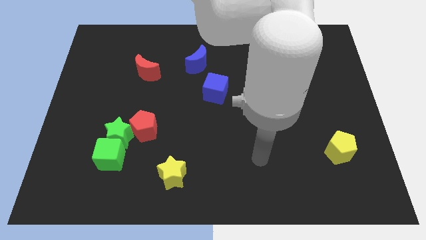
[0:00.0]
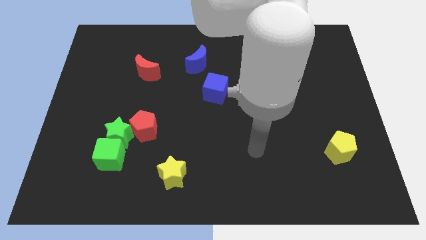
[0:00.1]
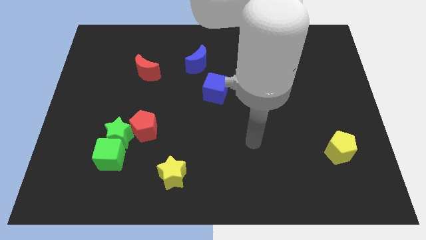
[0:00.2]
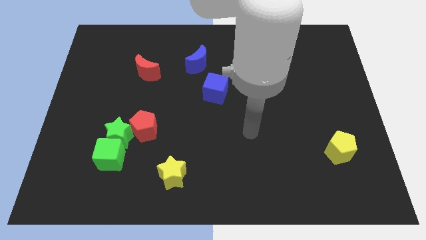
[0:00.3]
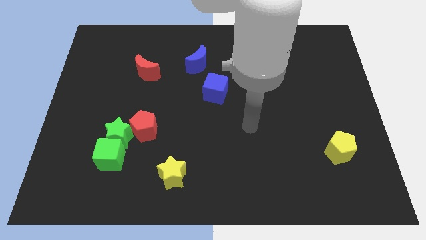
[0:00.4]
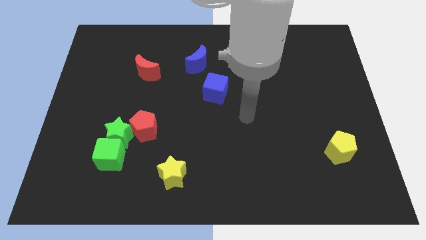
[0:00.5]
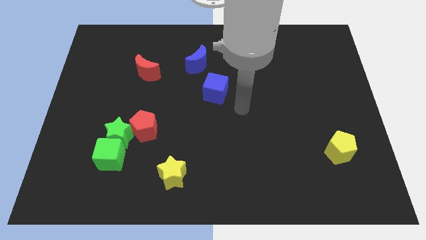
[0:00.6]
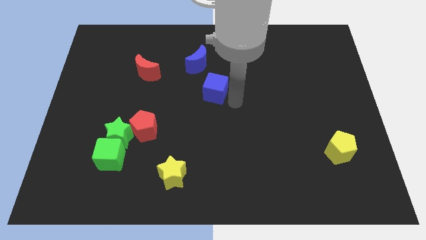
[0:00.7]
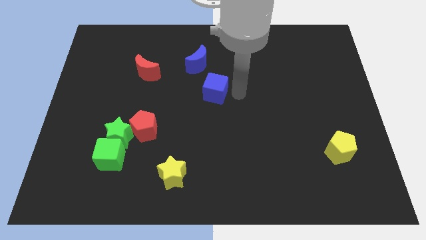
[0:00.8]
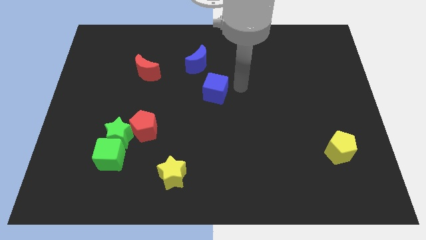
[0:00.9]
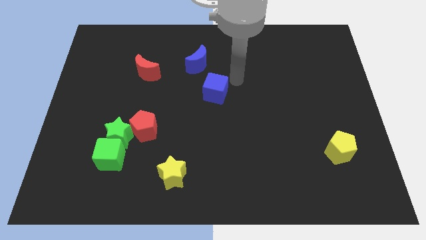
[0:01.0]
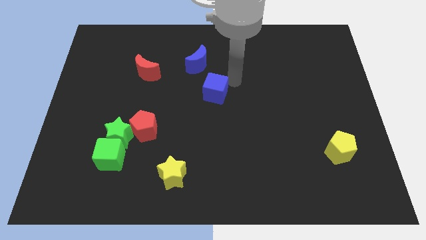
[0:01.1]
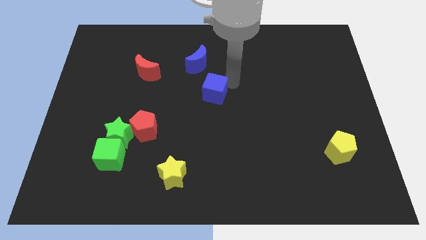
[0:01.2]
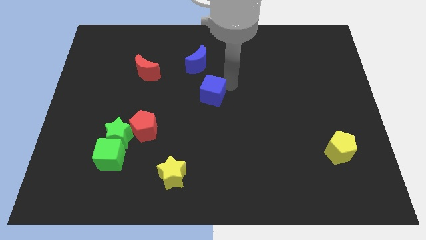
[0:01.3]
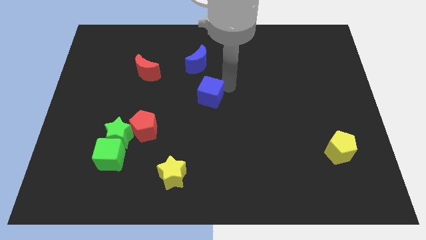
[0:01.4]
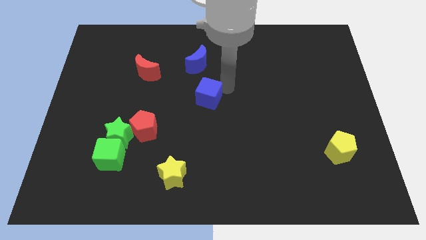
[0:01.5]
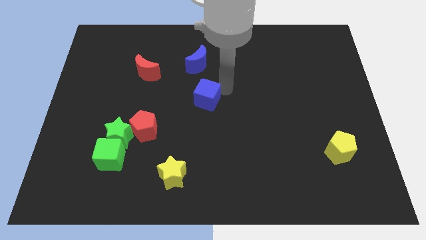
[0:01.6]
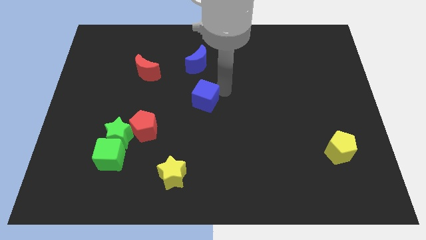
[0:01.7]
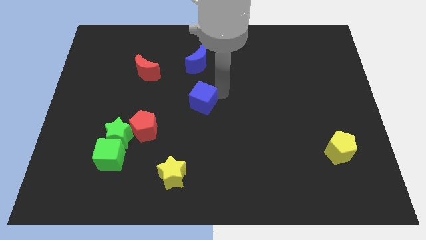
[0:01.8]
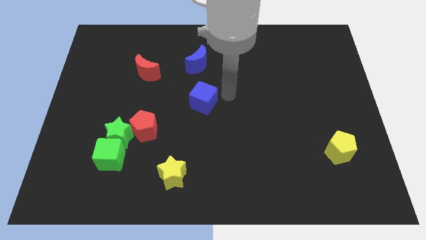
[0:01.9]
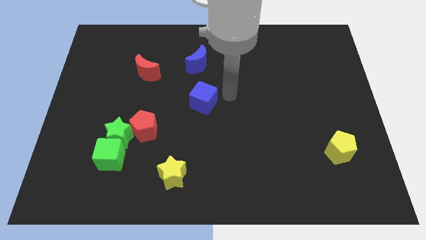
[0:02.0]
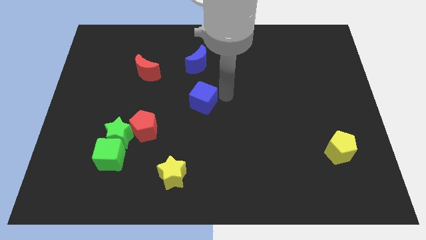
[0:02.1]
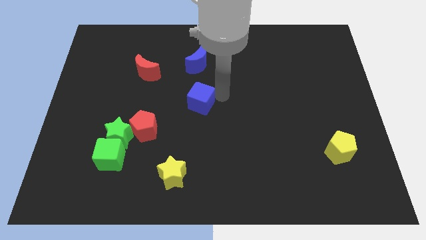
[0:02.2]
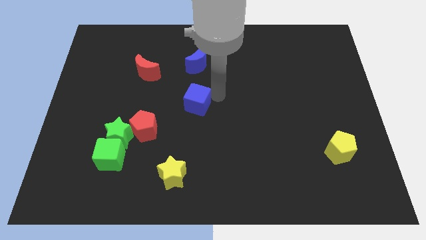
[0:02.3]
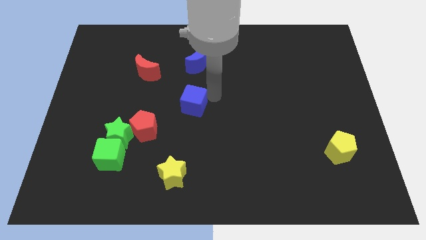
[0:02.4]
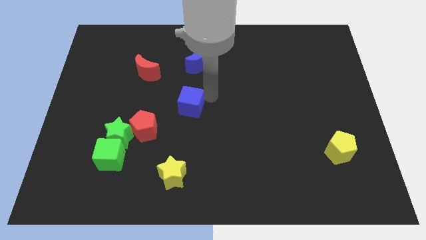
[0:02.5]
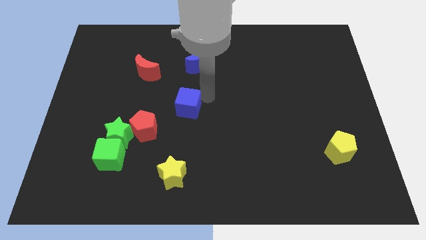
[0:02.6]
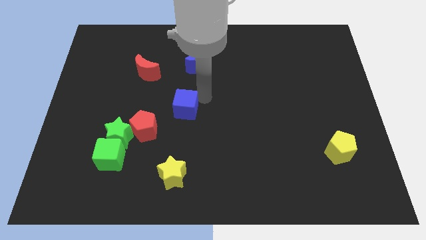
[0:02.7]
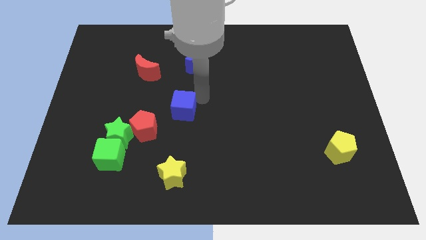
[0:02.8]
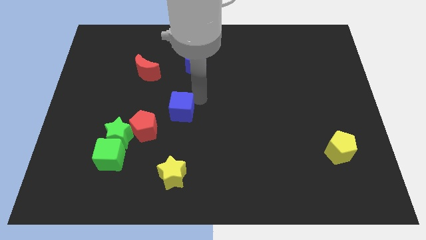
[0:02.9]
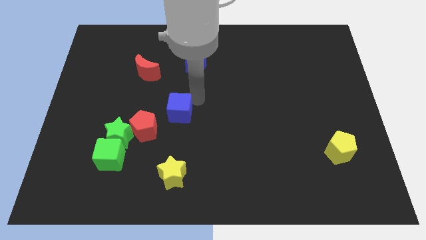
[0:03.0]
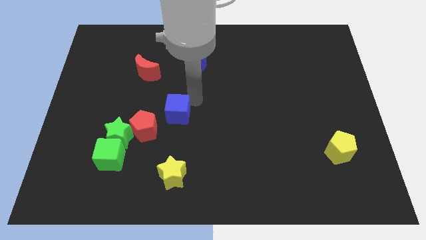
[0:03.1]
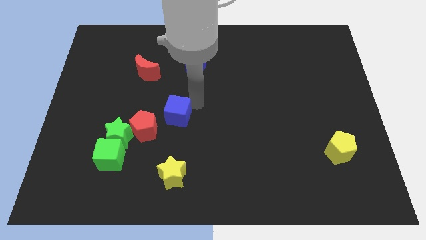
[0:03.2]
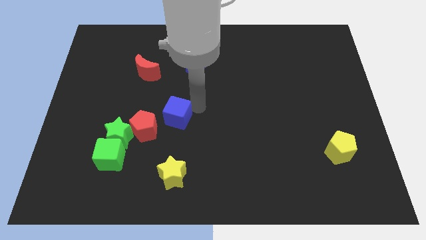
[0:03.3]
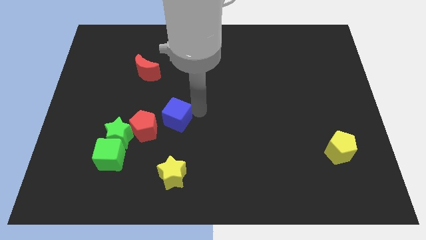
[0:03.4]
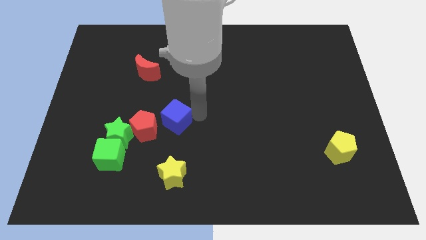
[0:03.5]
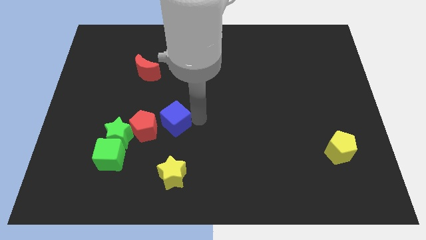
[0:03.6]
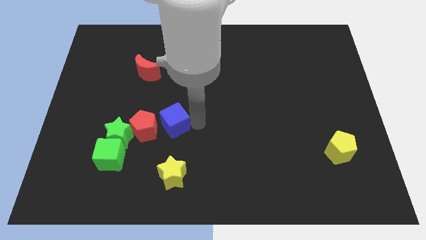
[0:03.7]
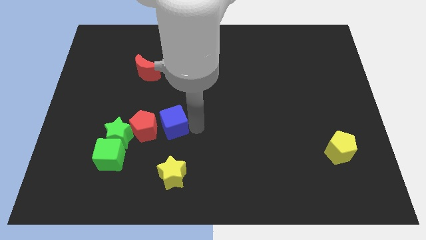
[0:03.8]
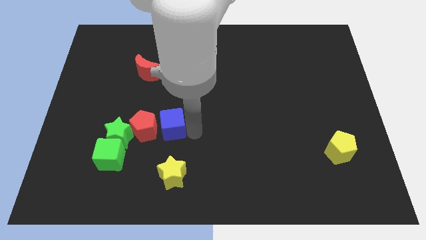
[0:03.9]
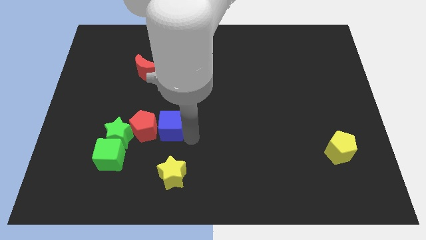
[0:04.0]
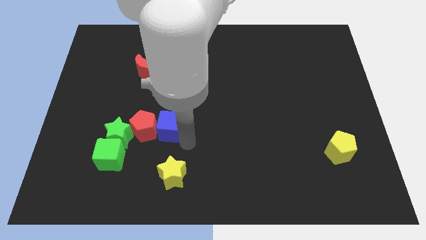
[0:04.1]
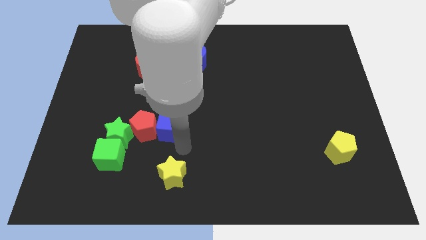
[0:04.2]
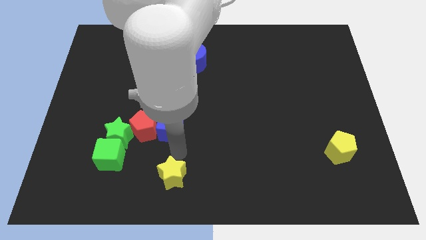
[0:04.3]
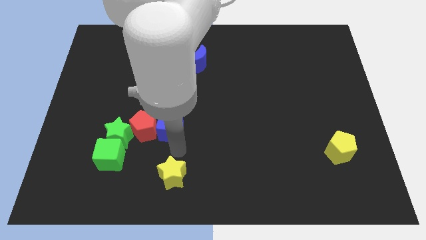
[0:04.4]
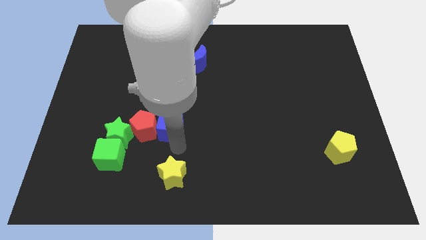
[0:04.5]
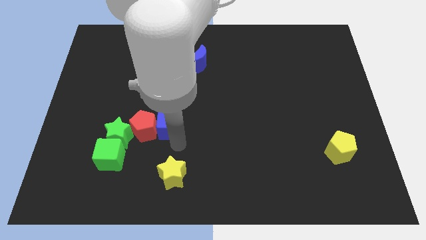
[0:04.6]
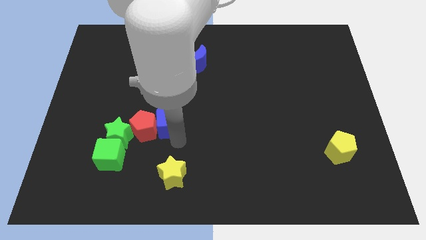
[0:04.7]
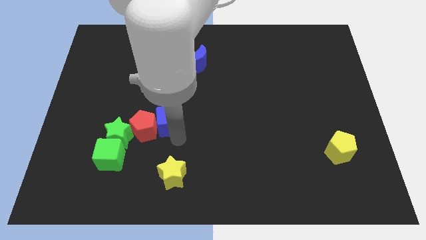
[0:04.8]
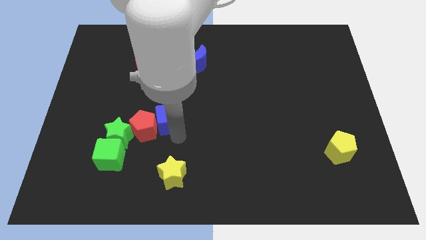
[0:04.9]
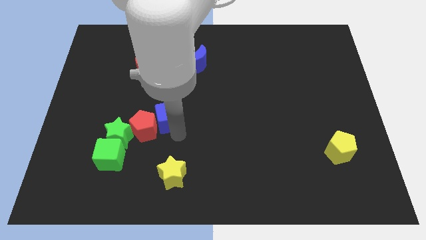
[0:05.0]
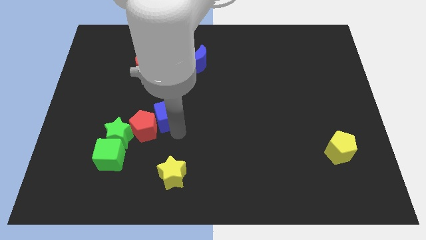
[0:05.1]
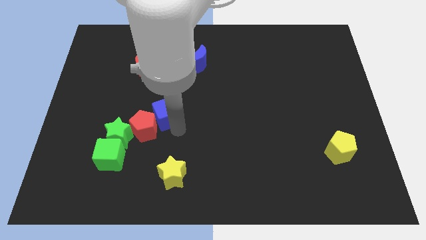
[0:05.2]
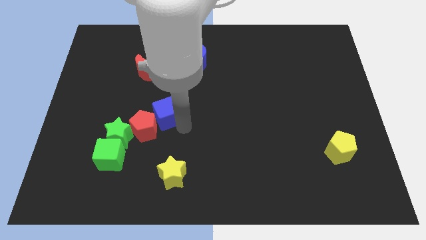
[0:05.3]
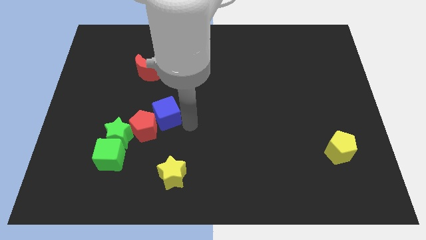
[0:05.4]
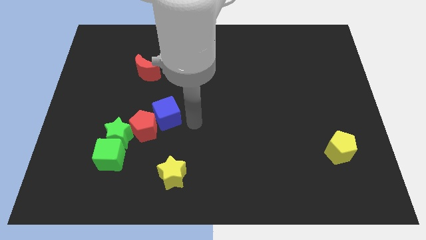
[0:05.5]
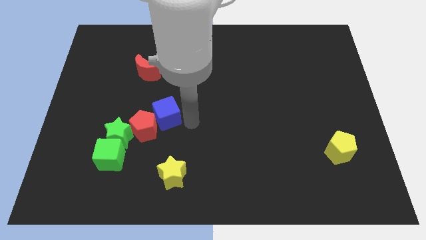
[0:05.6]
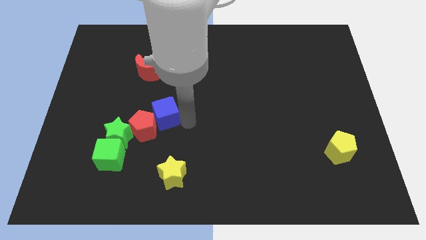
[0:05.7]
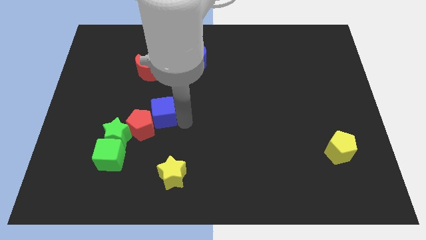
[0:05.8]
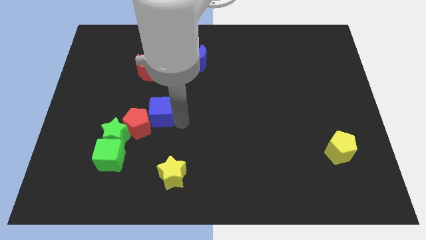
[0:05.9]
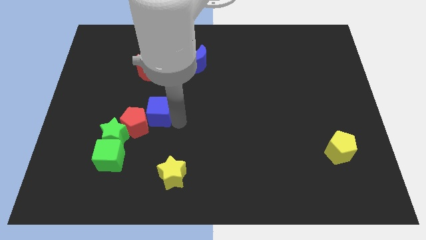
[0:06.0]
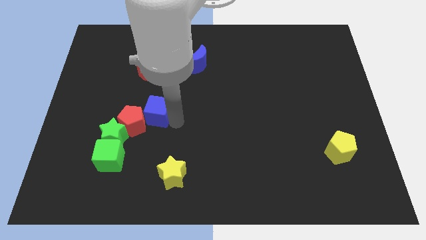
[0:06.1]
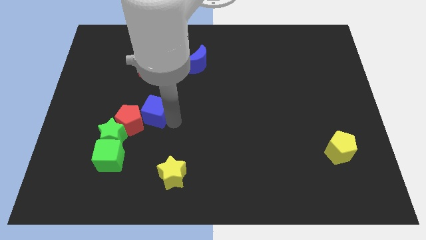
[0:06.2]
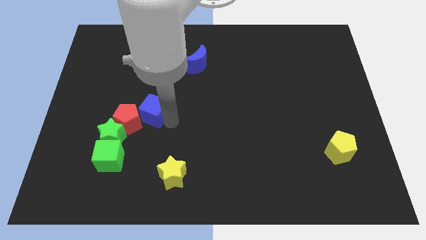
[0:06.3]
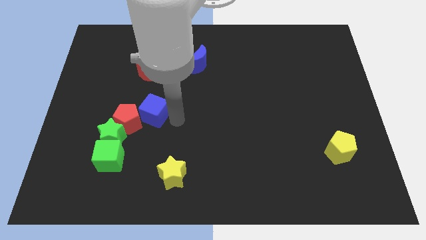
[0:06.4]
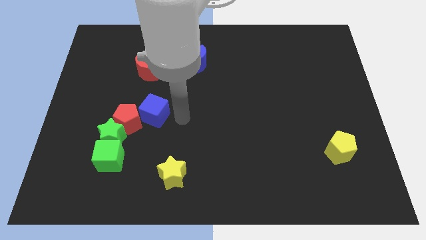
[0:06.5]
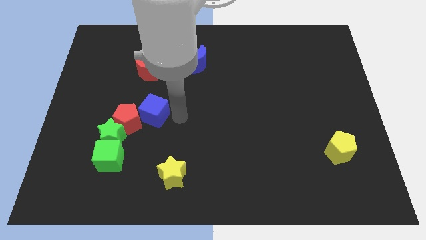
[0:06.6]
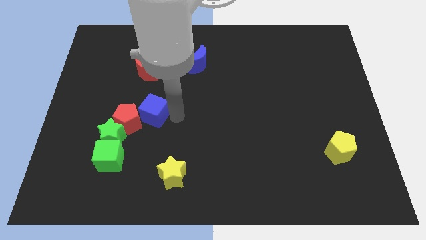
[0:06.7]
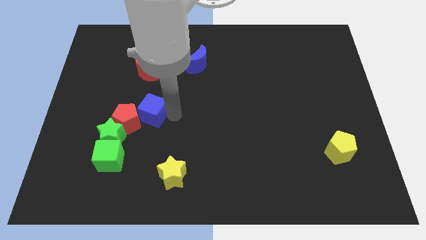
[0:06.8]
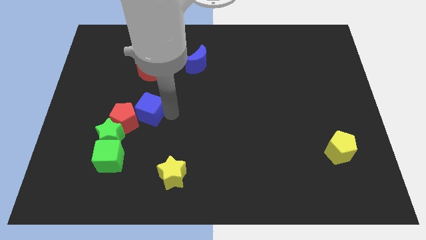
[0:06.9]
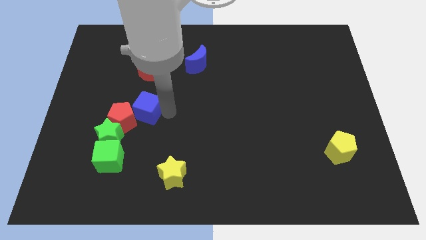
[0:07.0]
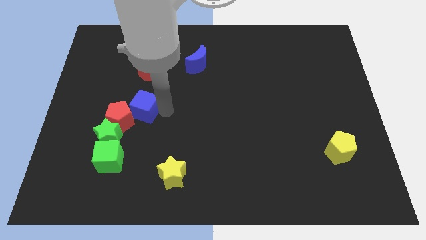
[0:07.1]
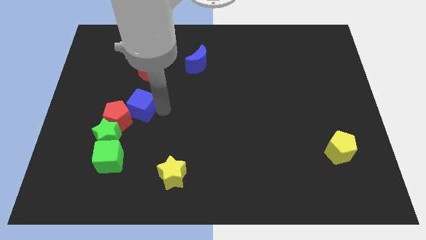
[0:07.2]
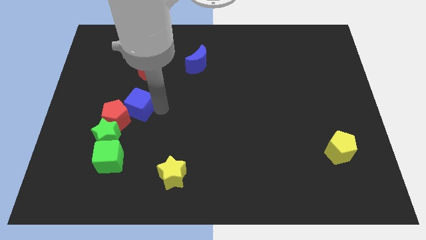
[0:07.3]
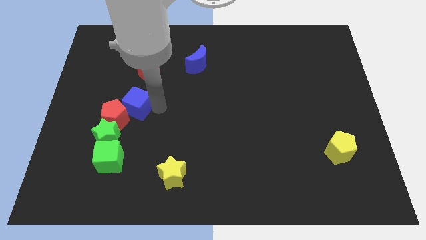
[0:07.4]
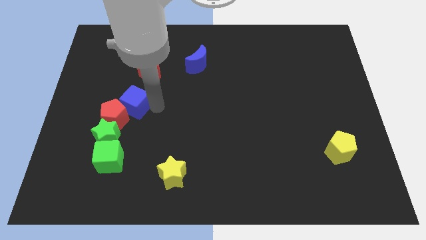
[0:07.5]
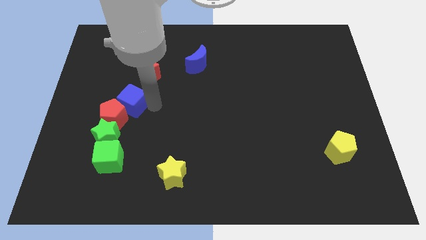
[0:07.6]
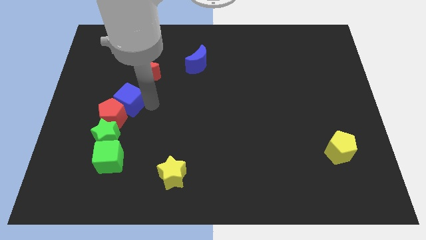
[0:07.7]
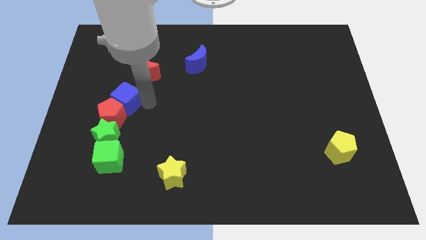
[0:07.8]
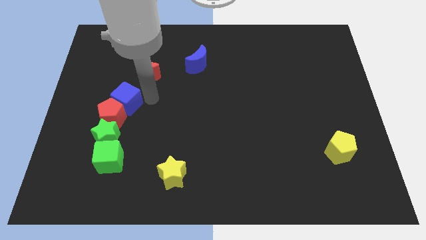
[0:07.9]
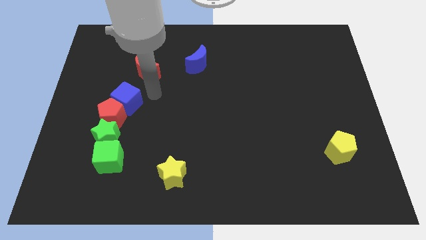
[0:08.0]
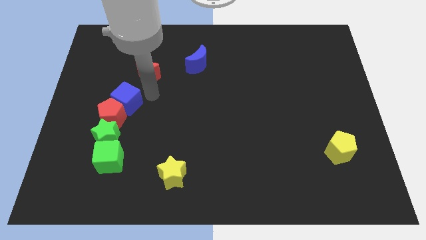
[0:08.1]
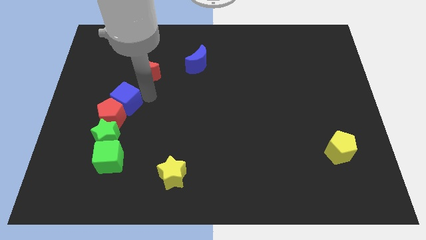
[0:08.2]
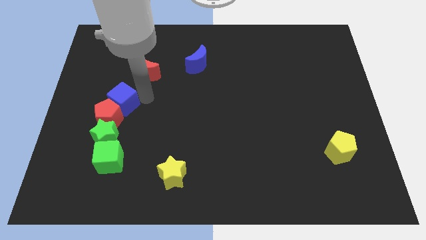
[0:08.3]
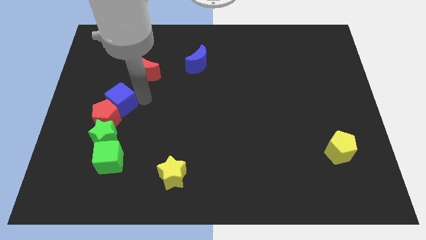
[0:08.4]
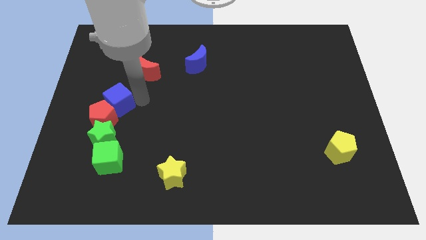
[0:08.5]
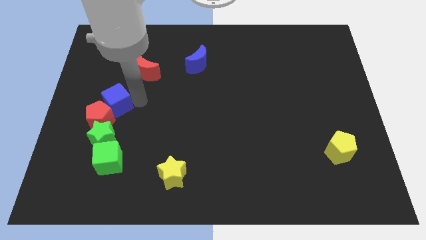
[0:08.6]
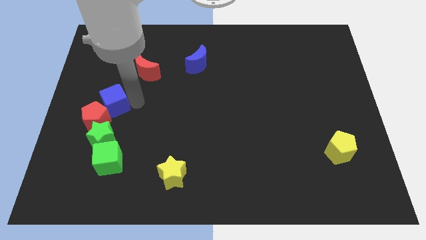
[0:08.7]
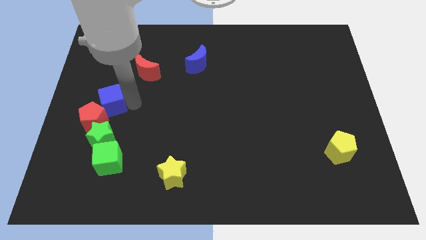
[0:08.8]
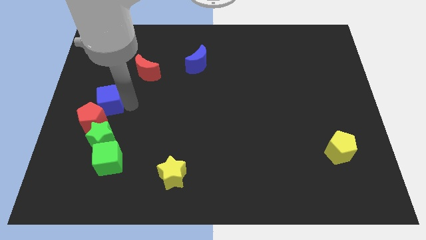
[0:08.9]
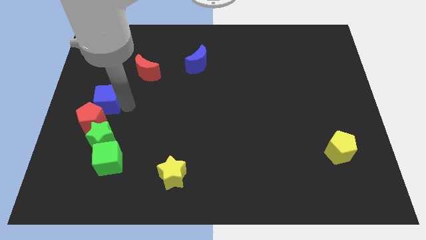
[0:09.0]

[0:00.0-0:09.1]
put the blue cube to the left side of the board
